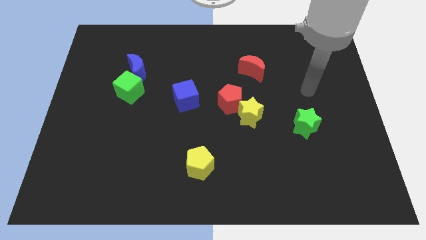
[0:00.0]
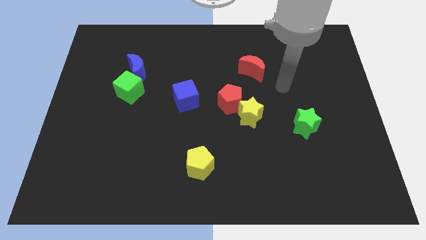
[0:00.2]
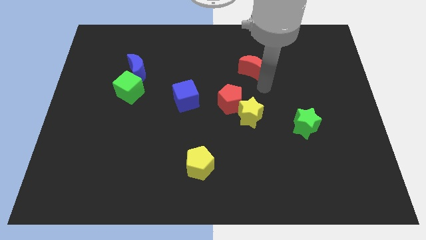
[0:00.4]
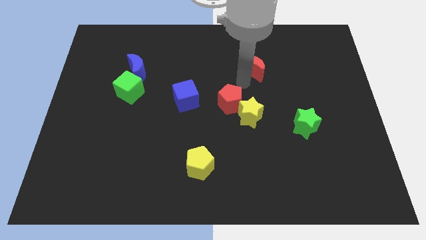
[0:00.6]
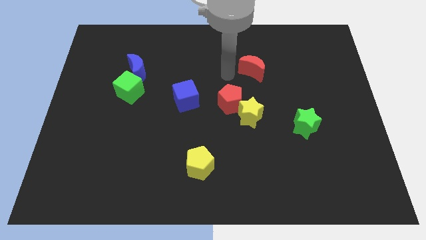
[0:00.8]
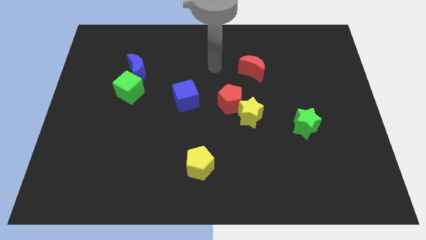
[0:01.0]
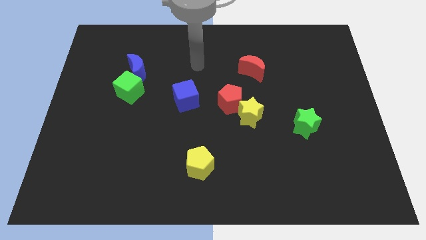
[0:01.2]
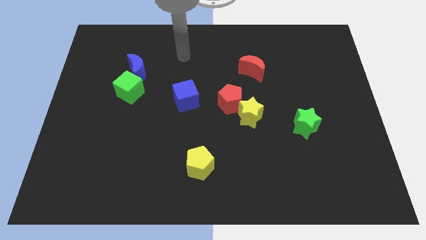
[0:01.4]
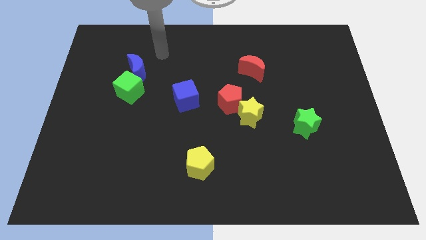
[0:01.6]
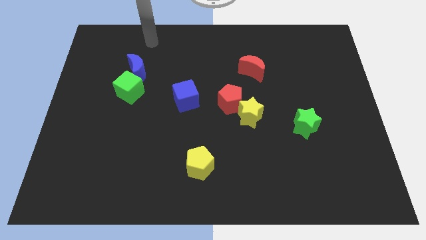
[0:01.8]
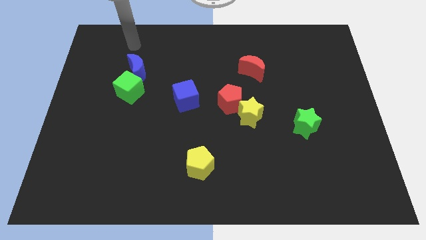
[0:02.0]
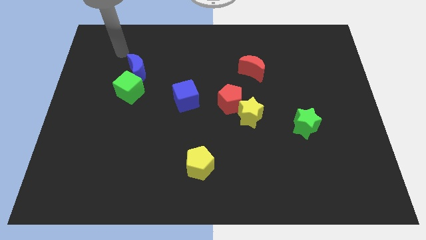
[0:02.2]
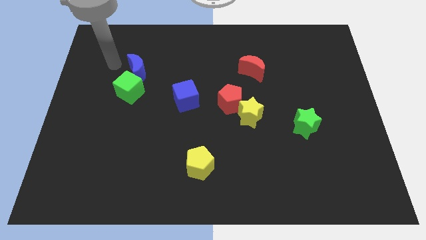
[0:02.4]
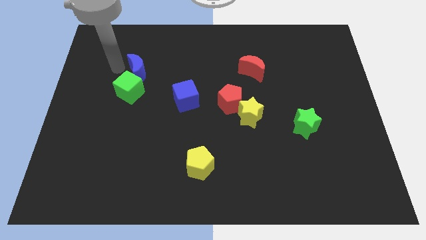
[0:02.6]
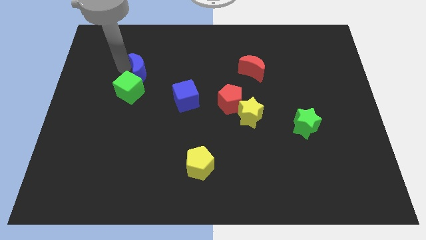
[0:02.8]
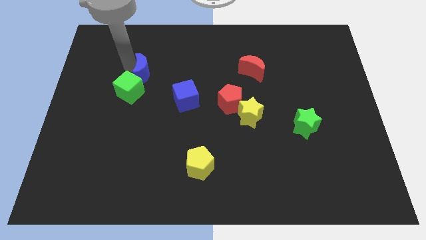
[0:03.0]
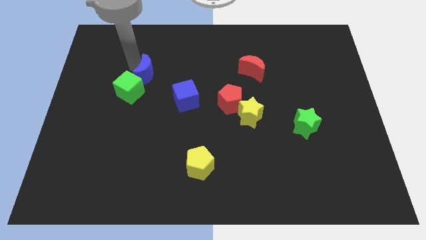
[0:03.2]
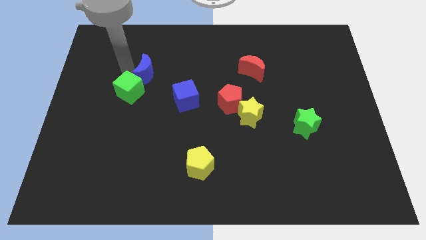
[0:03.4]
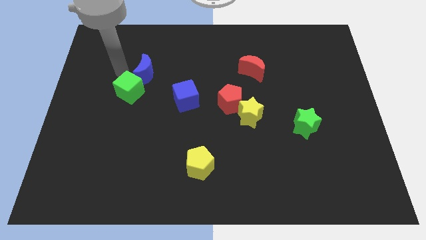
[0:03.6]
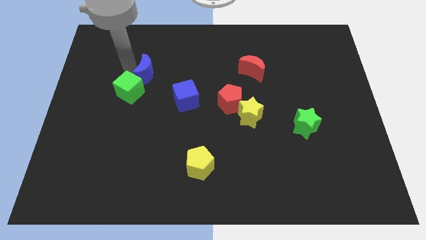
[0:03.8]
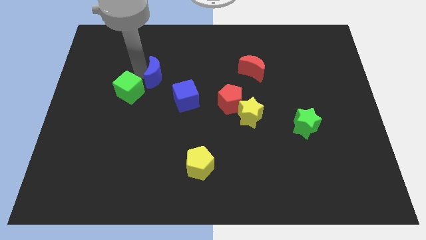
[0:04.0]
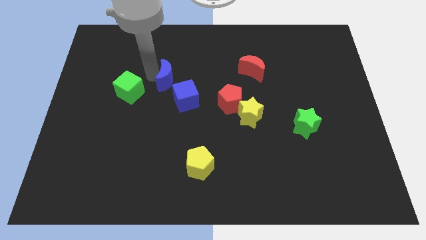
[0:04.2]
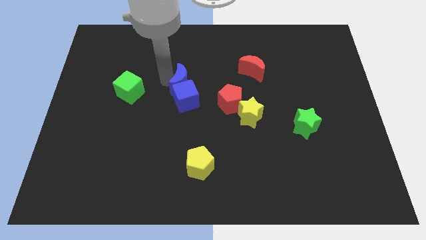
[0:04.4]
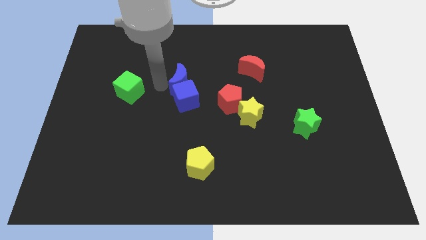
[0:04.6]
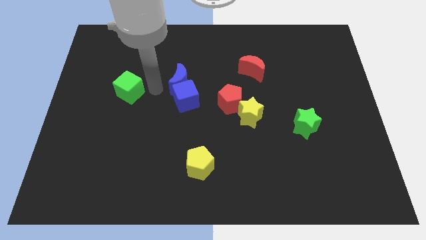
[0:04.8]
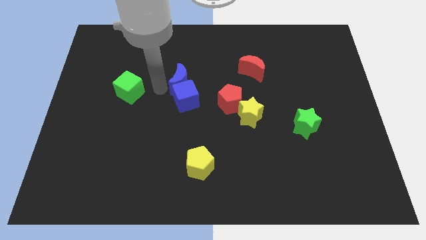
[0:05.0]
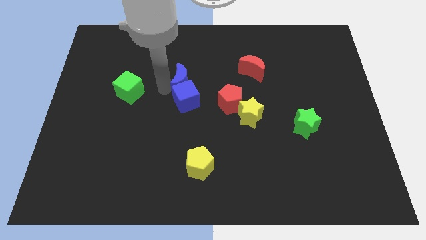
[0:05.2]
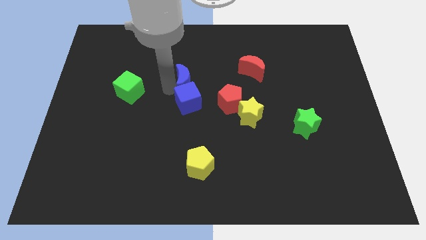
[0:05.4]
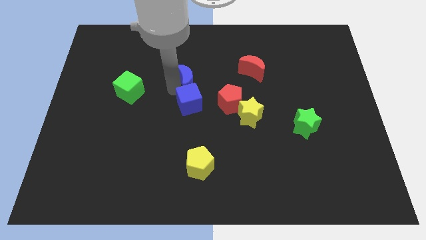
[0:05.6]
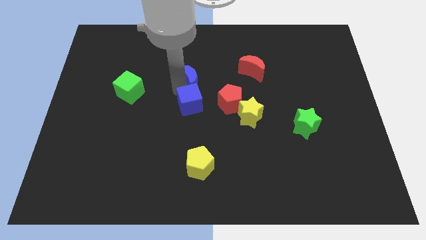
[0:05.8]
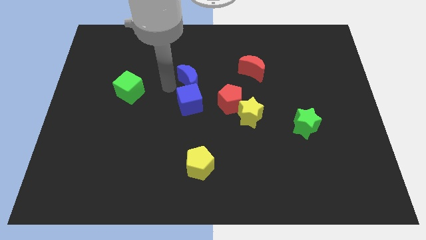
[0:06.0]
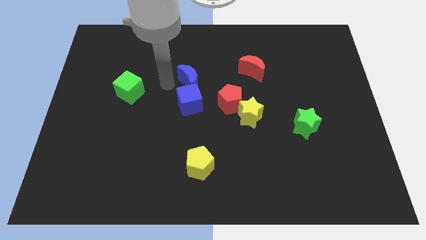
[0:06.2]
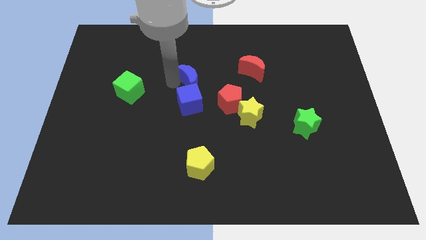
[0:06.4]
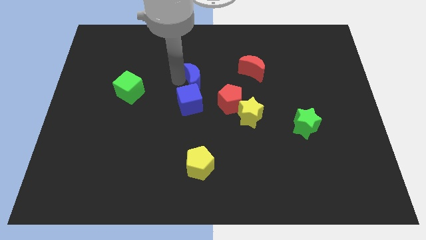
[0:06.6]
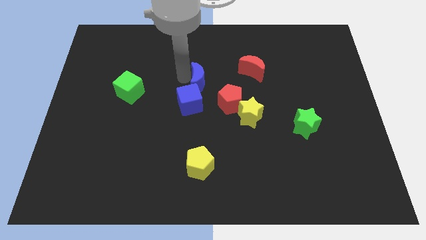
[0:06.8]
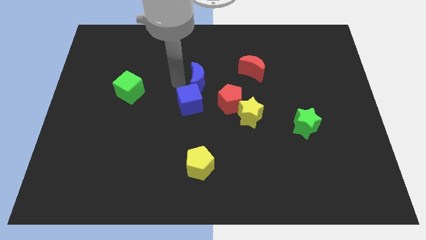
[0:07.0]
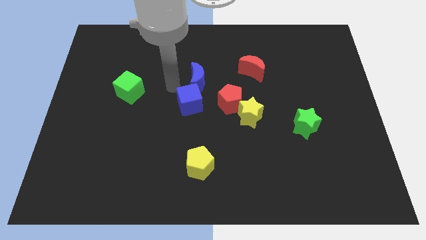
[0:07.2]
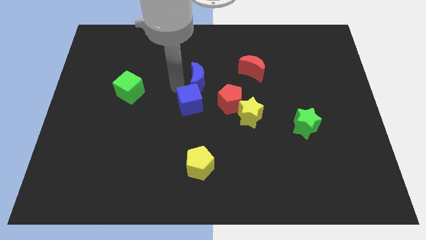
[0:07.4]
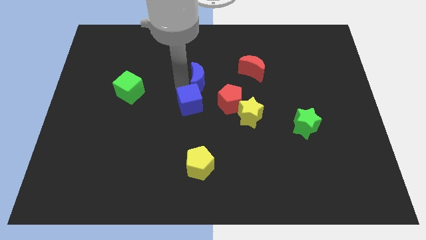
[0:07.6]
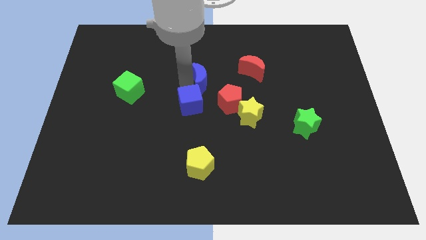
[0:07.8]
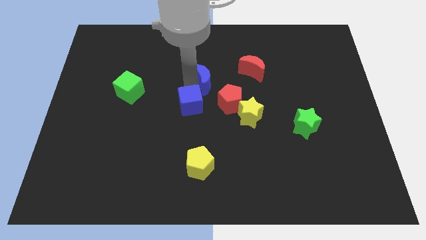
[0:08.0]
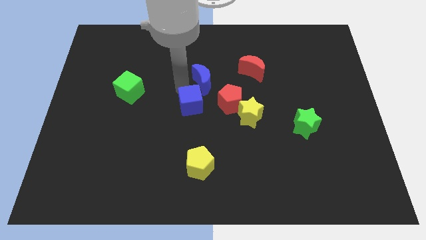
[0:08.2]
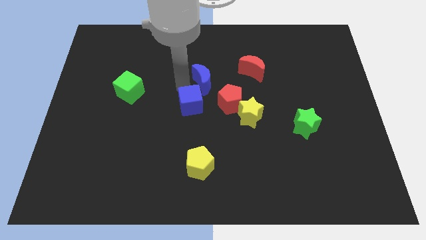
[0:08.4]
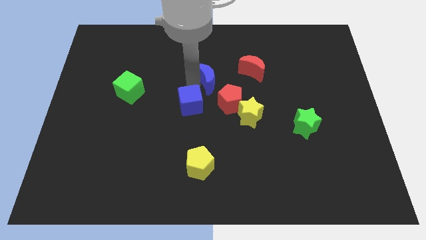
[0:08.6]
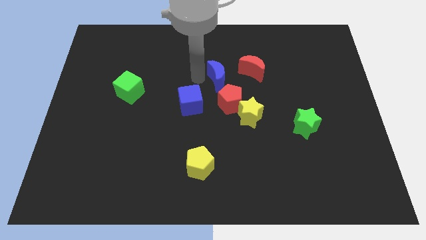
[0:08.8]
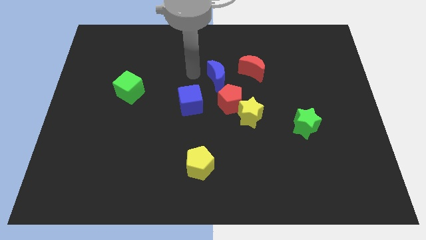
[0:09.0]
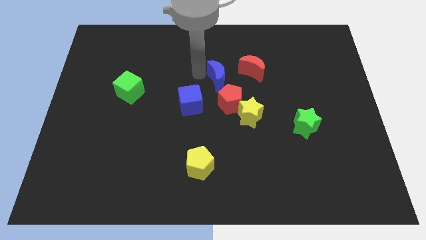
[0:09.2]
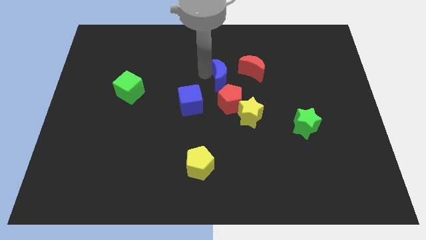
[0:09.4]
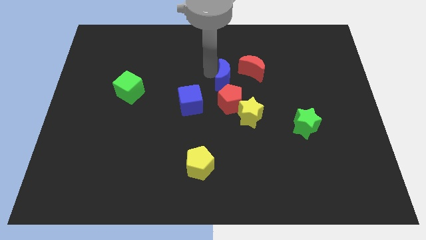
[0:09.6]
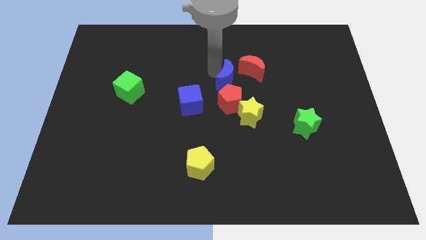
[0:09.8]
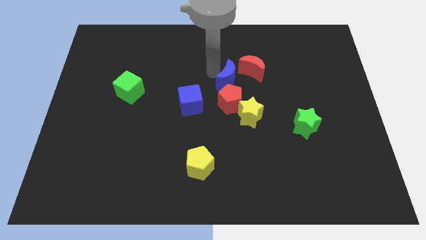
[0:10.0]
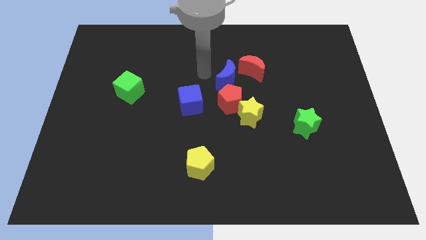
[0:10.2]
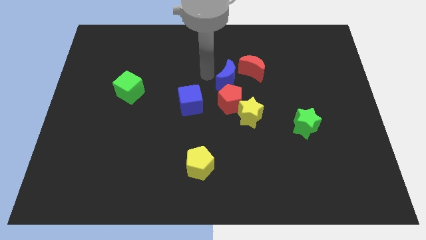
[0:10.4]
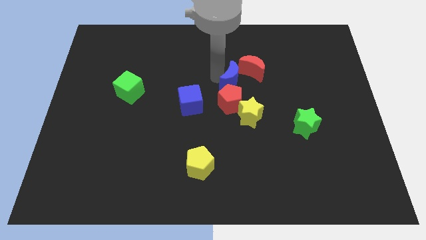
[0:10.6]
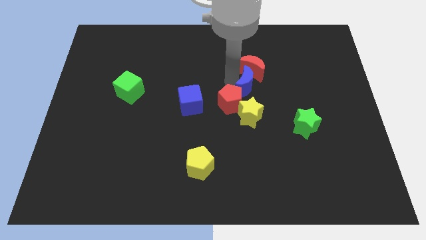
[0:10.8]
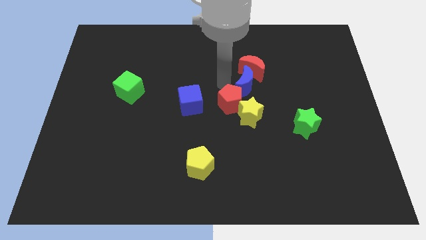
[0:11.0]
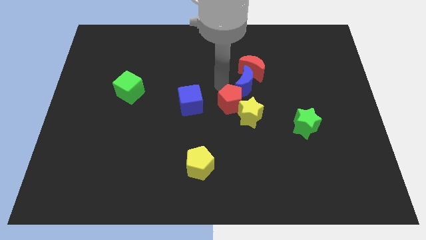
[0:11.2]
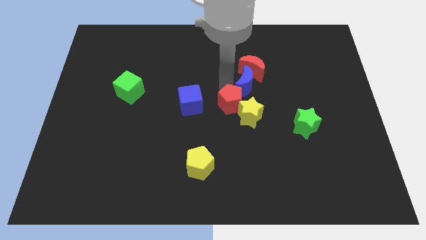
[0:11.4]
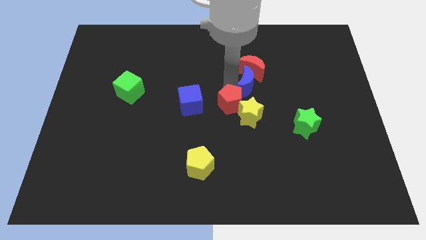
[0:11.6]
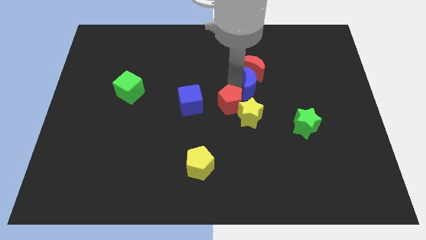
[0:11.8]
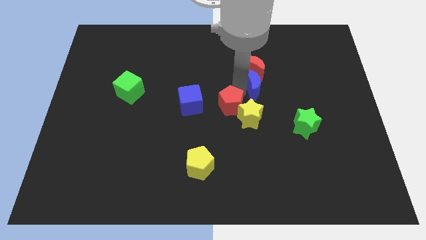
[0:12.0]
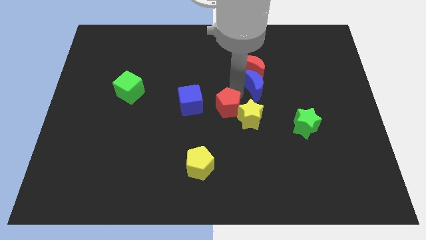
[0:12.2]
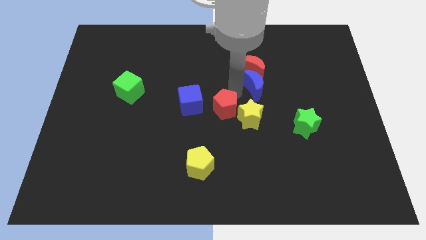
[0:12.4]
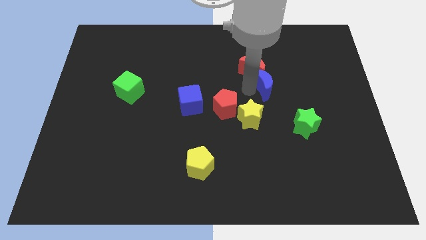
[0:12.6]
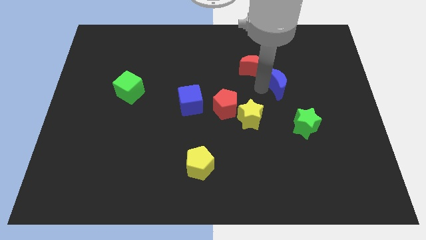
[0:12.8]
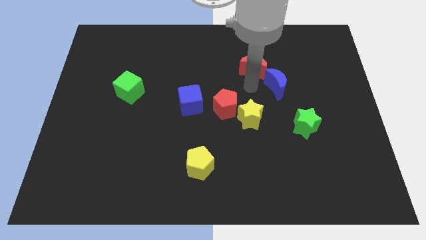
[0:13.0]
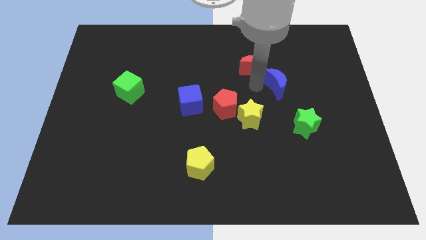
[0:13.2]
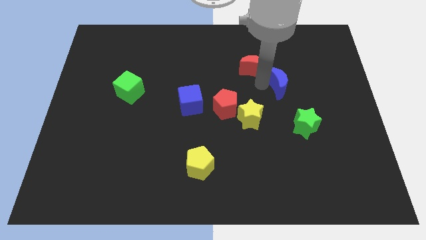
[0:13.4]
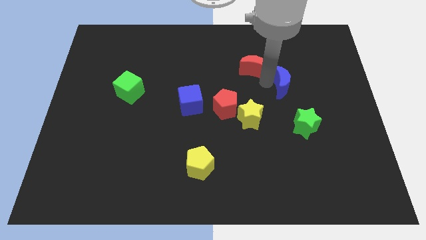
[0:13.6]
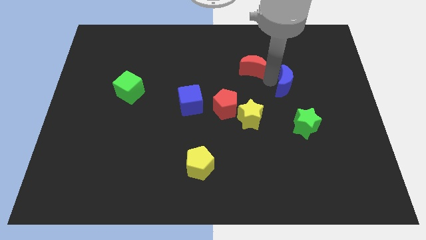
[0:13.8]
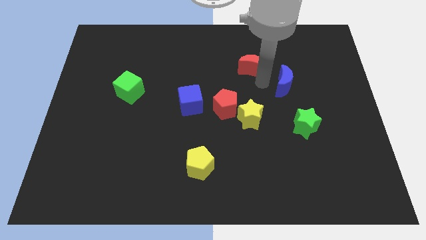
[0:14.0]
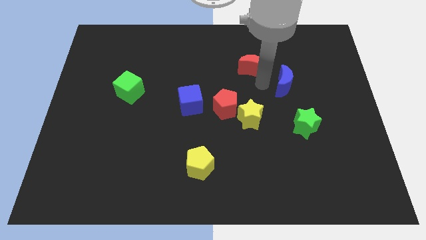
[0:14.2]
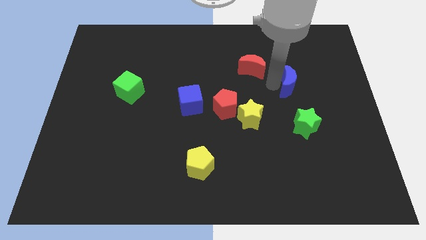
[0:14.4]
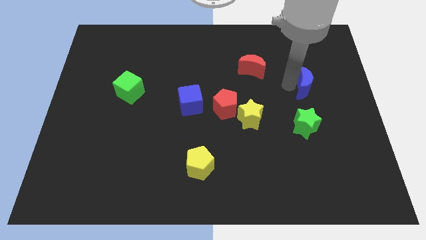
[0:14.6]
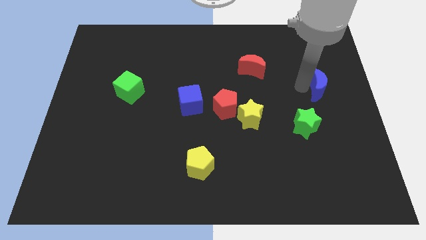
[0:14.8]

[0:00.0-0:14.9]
move the blue moon to the center right
